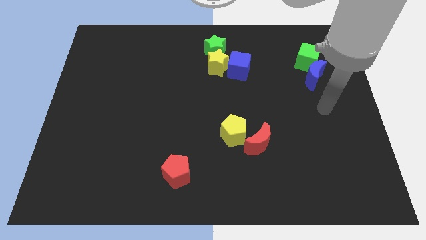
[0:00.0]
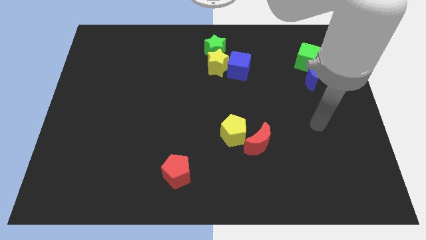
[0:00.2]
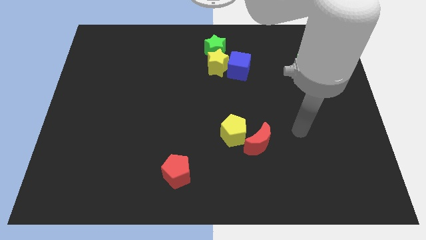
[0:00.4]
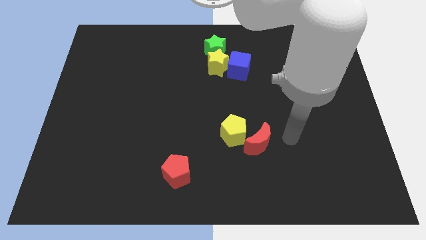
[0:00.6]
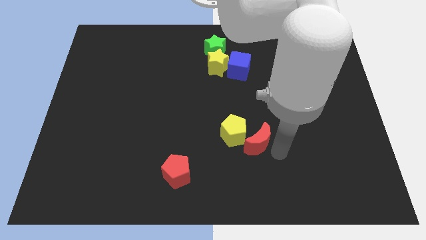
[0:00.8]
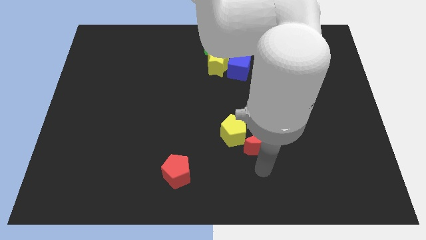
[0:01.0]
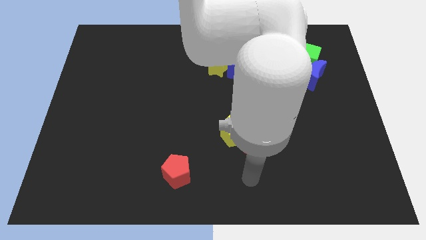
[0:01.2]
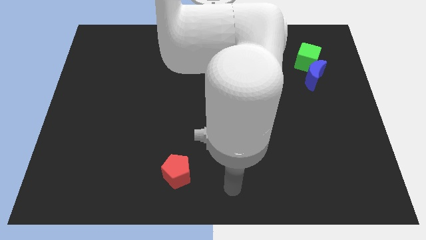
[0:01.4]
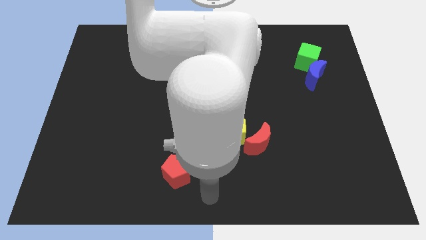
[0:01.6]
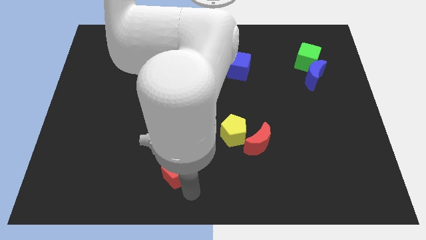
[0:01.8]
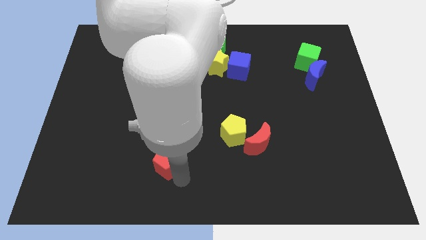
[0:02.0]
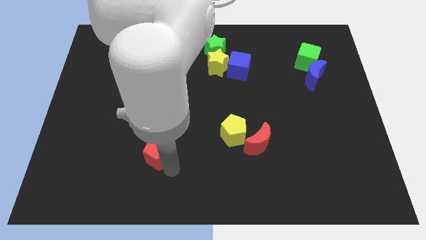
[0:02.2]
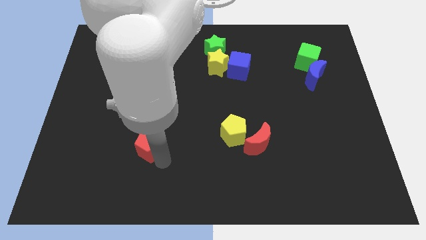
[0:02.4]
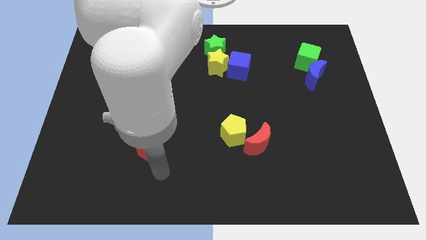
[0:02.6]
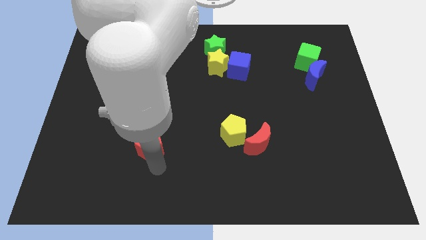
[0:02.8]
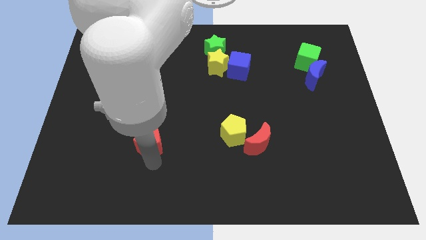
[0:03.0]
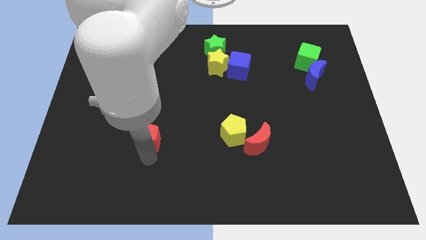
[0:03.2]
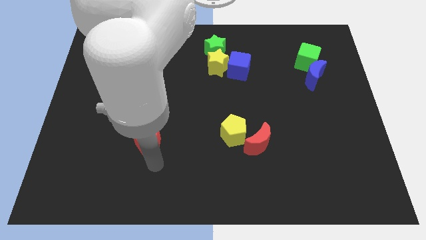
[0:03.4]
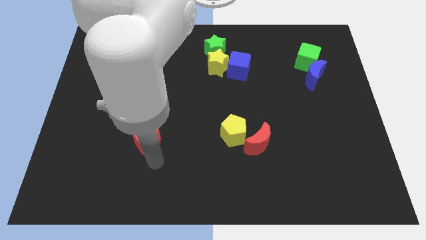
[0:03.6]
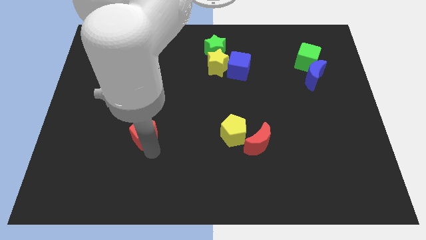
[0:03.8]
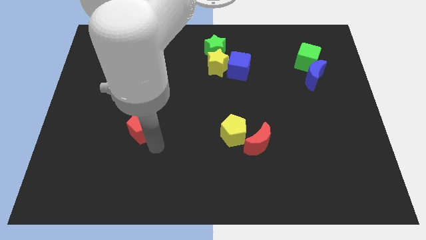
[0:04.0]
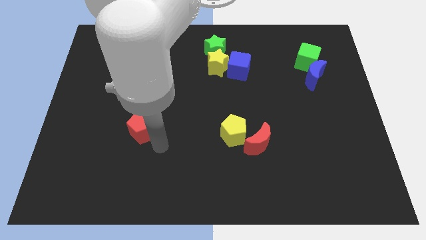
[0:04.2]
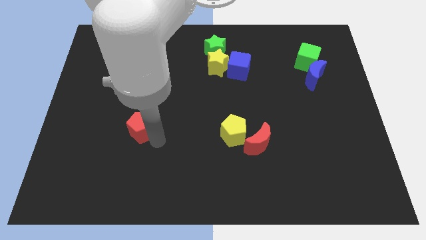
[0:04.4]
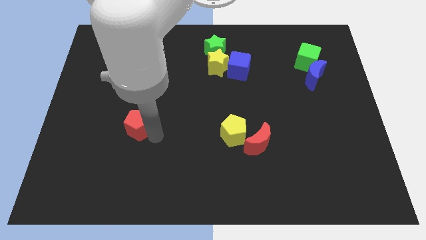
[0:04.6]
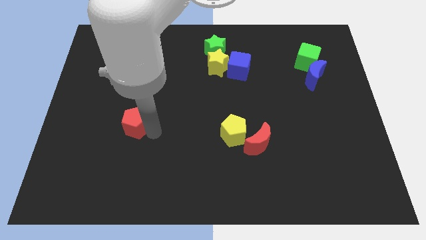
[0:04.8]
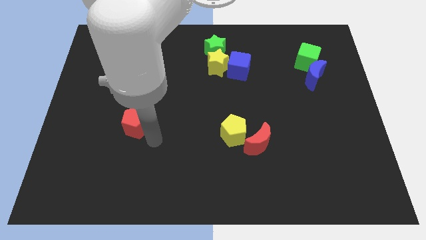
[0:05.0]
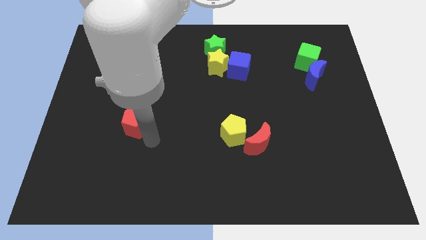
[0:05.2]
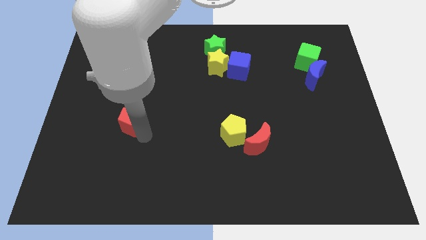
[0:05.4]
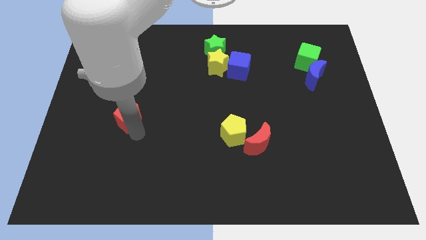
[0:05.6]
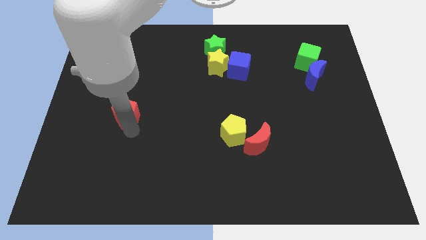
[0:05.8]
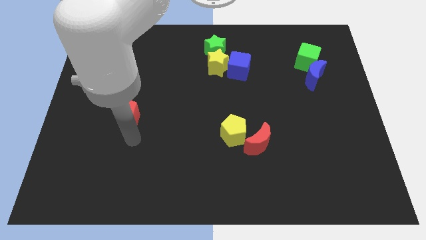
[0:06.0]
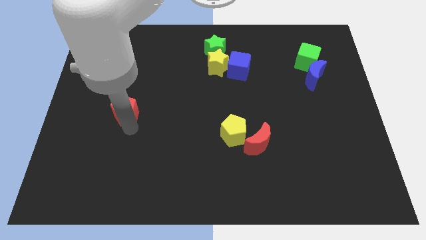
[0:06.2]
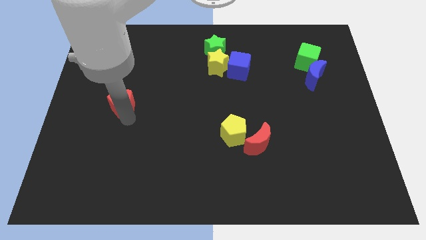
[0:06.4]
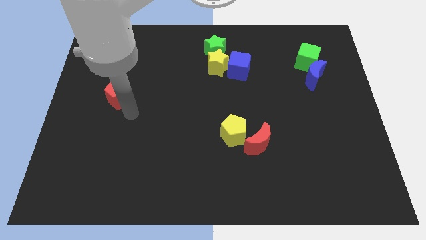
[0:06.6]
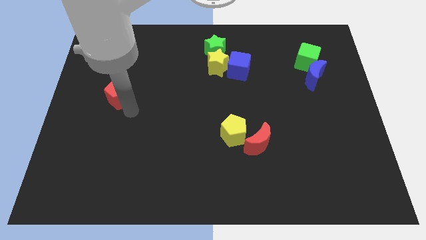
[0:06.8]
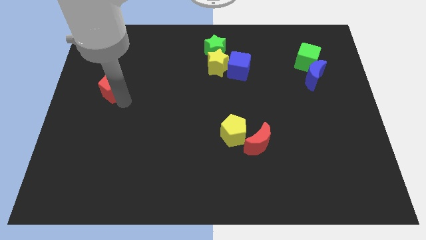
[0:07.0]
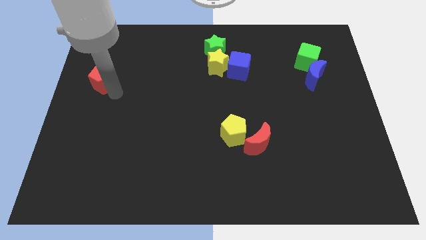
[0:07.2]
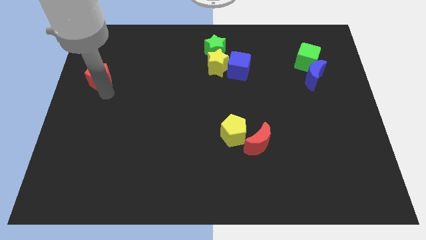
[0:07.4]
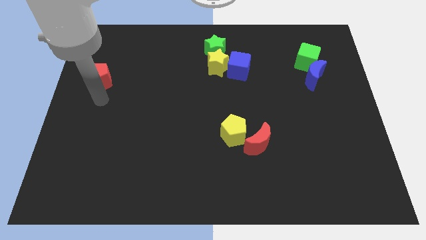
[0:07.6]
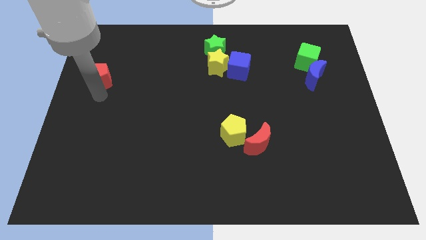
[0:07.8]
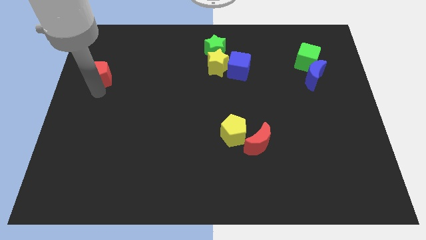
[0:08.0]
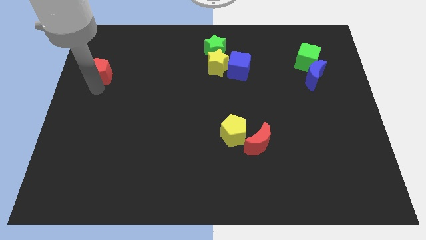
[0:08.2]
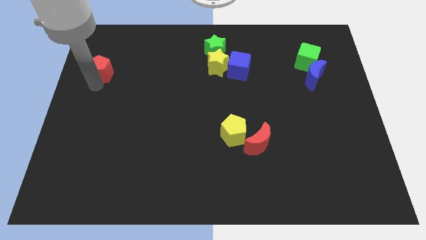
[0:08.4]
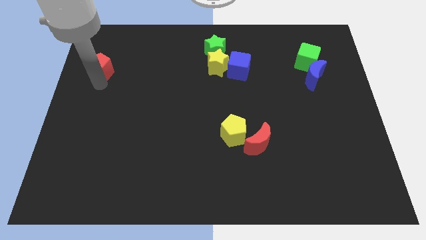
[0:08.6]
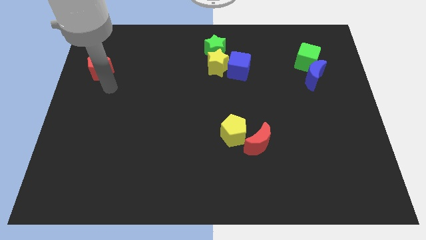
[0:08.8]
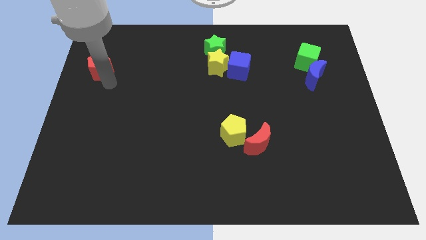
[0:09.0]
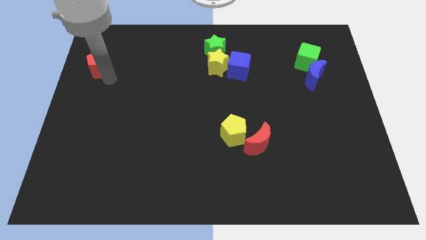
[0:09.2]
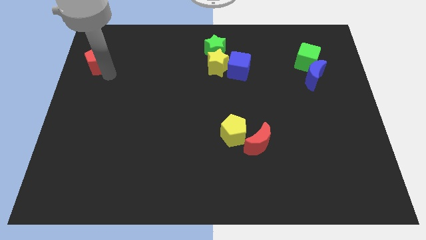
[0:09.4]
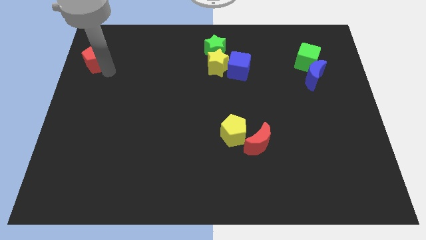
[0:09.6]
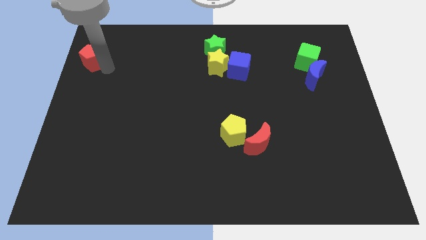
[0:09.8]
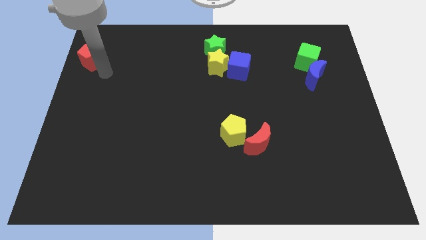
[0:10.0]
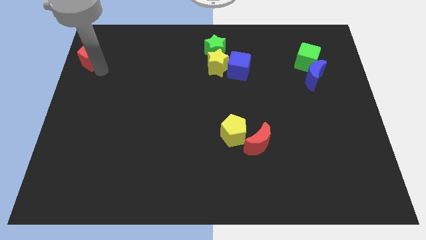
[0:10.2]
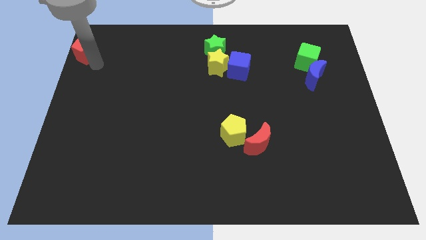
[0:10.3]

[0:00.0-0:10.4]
move the red pentagon to the top left of the board

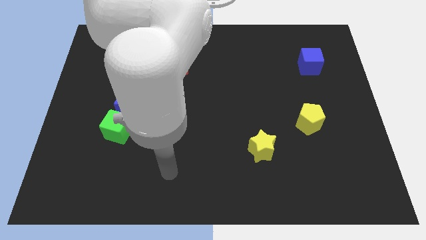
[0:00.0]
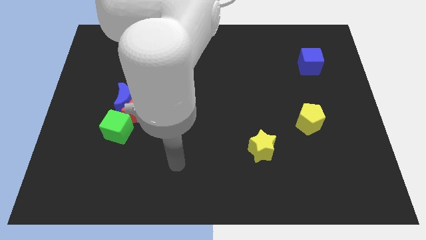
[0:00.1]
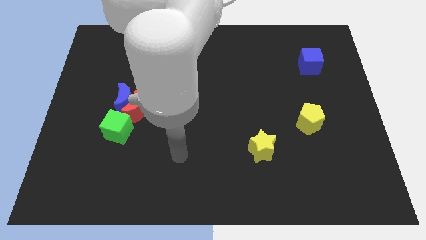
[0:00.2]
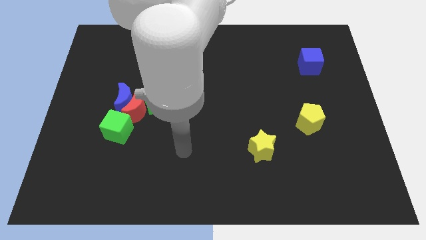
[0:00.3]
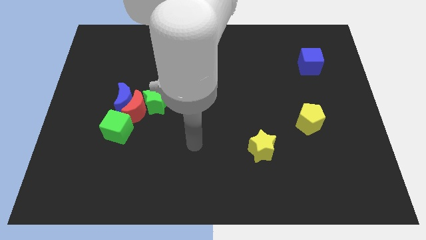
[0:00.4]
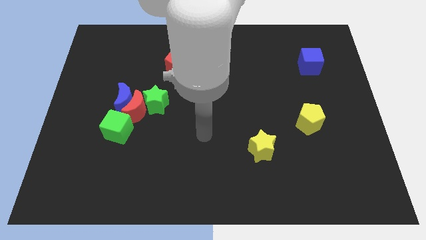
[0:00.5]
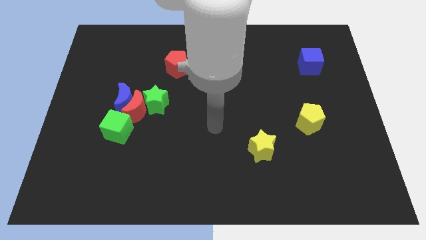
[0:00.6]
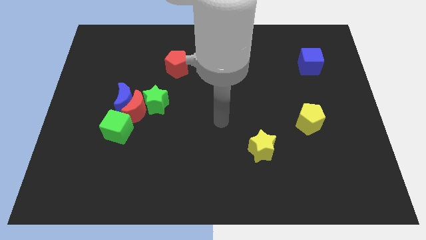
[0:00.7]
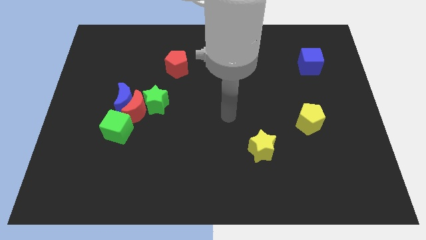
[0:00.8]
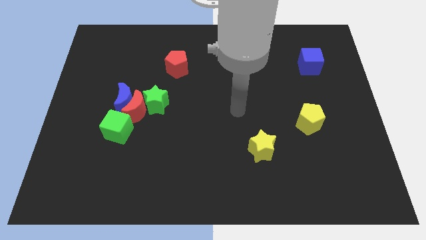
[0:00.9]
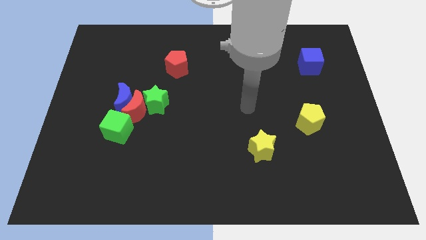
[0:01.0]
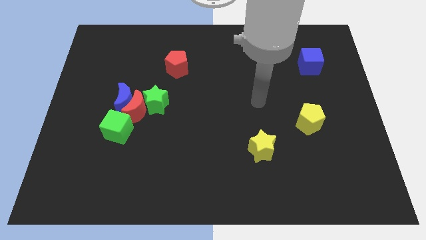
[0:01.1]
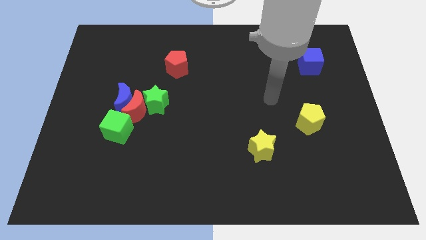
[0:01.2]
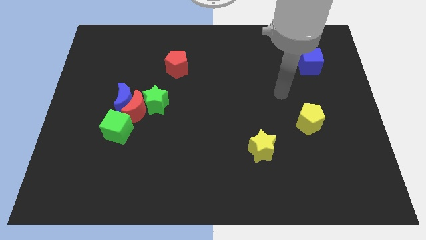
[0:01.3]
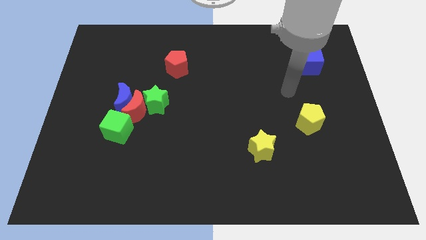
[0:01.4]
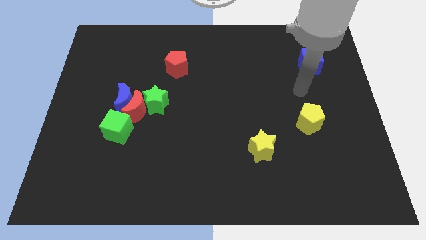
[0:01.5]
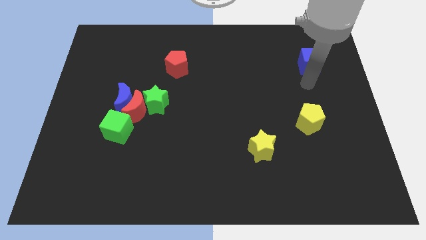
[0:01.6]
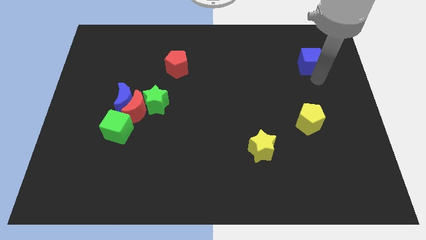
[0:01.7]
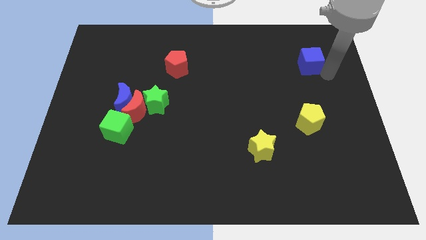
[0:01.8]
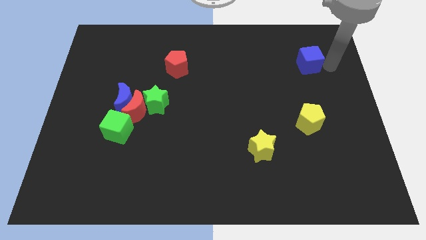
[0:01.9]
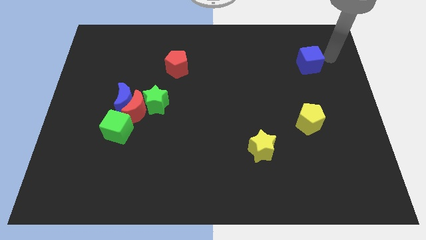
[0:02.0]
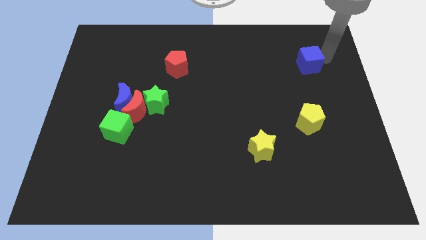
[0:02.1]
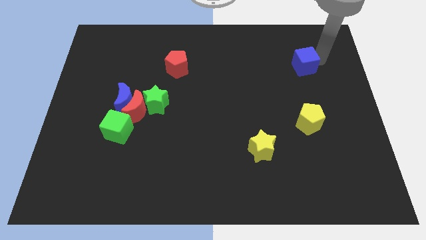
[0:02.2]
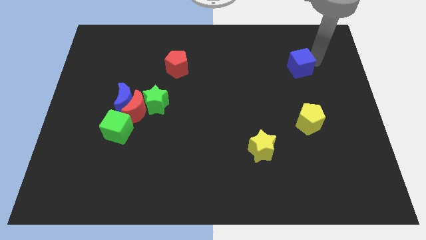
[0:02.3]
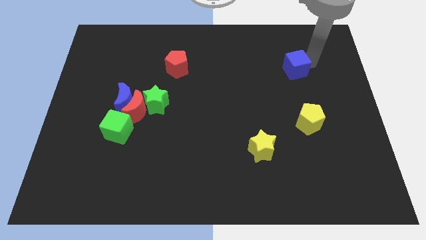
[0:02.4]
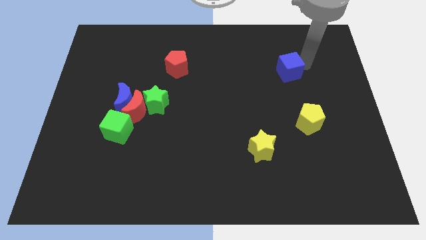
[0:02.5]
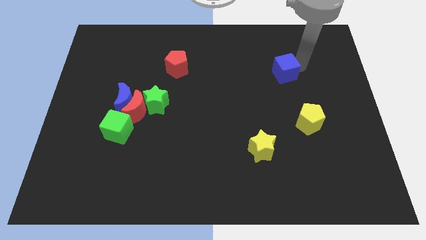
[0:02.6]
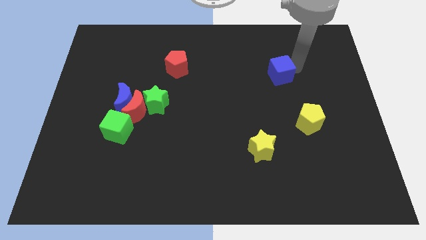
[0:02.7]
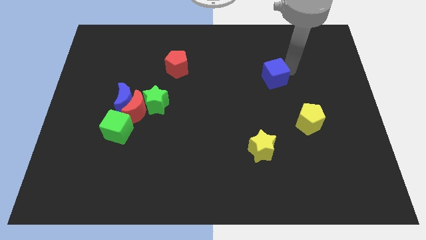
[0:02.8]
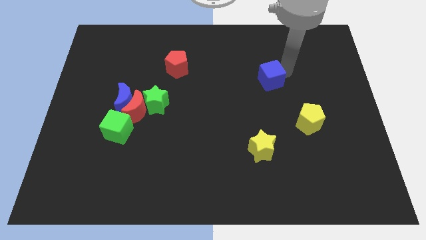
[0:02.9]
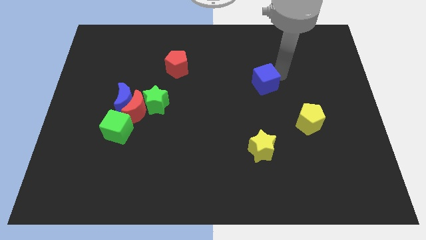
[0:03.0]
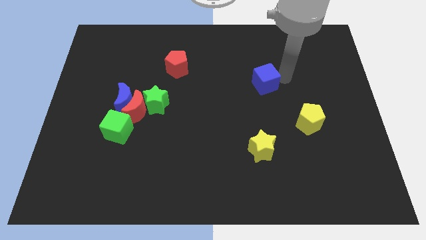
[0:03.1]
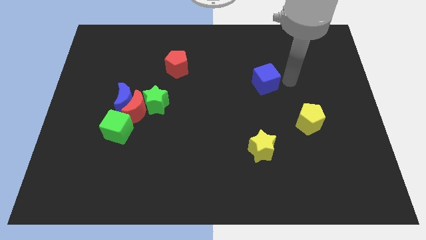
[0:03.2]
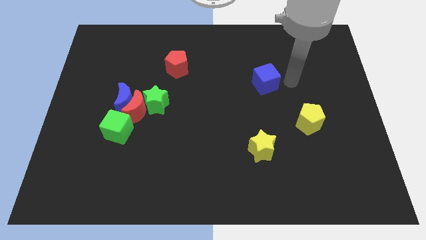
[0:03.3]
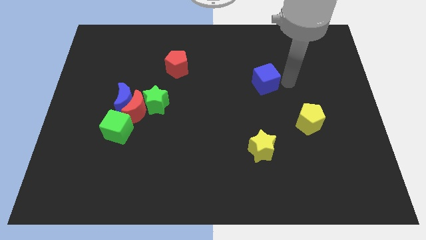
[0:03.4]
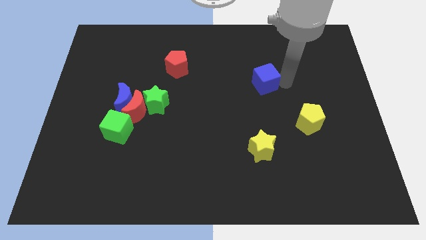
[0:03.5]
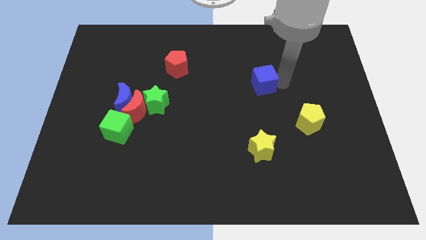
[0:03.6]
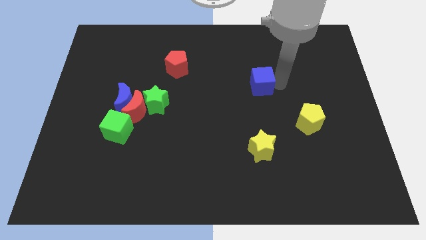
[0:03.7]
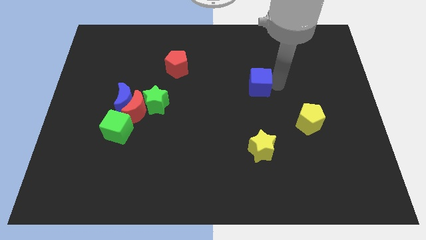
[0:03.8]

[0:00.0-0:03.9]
push the blue cube to the middle
